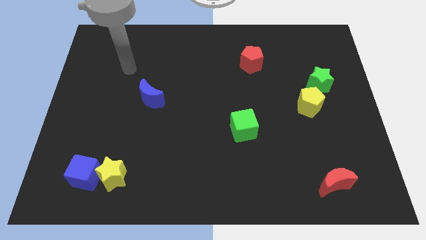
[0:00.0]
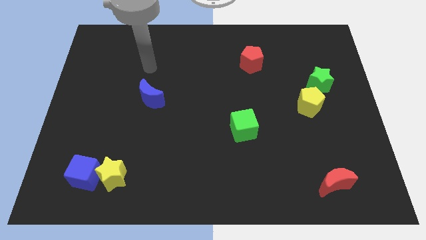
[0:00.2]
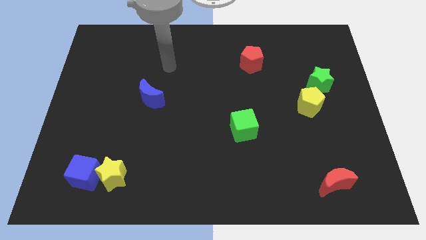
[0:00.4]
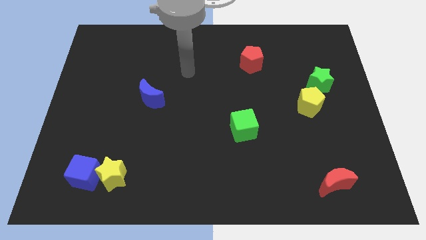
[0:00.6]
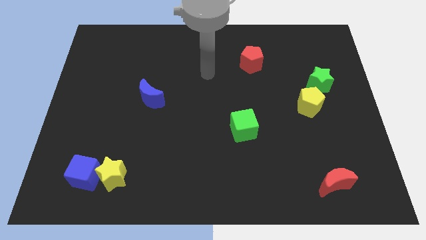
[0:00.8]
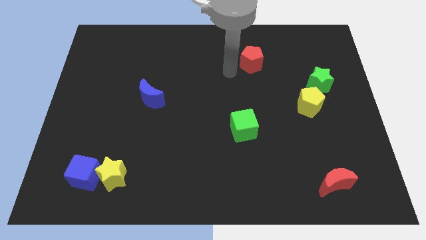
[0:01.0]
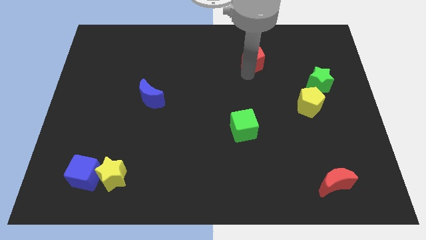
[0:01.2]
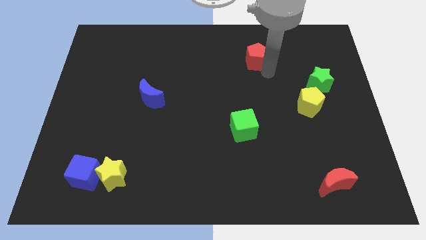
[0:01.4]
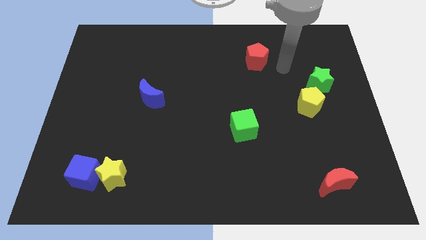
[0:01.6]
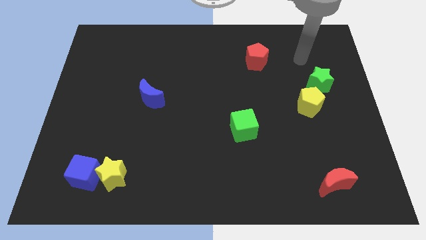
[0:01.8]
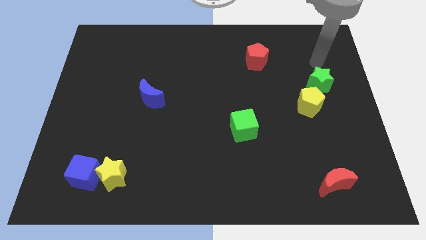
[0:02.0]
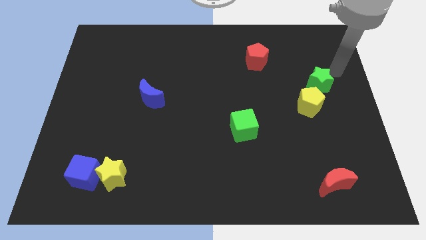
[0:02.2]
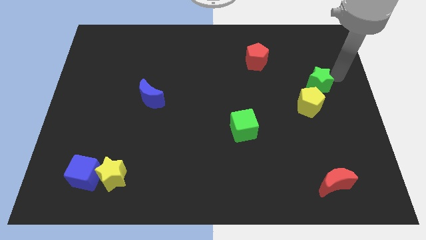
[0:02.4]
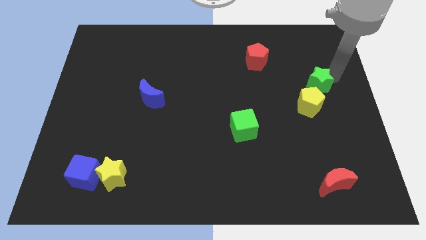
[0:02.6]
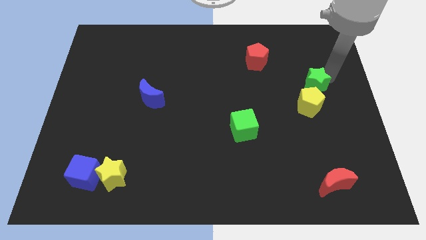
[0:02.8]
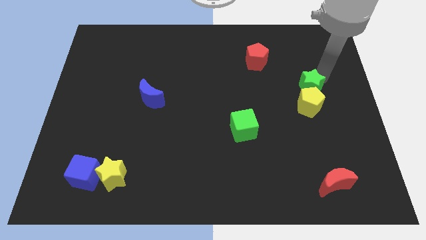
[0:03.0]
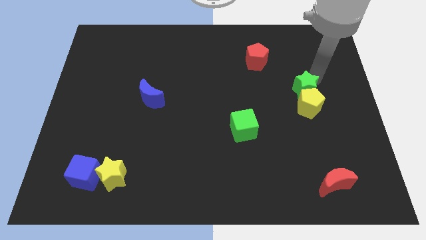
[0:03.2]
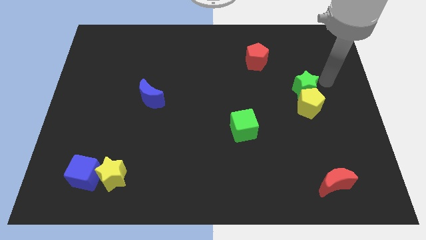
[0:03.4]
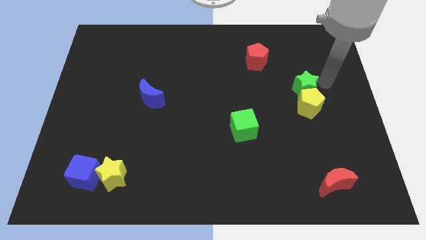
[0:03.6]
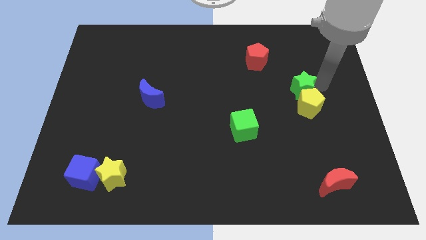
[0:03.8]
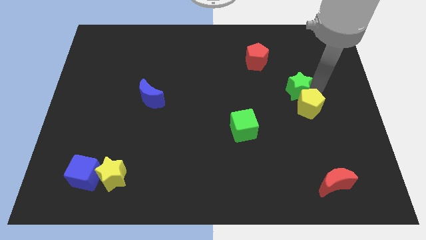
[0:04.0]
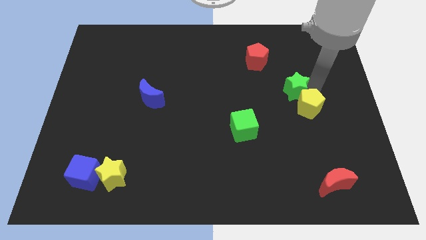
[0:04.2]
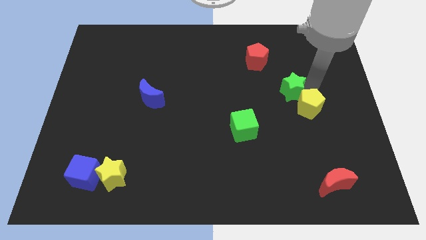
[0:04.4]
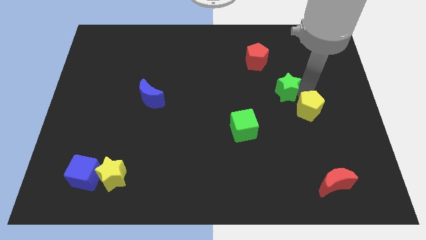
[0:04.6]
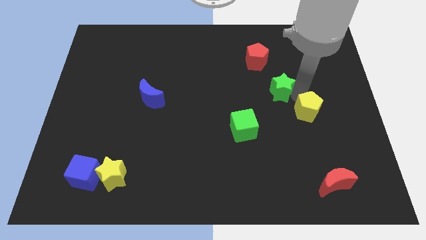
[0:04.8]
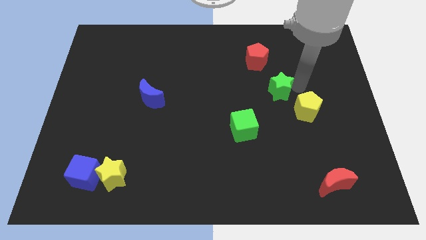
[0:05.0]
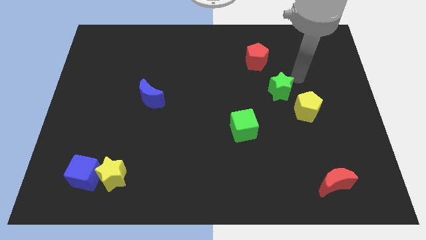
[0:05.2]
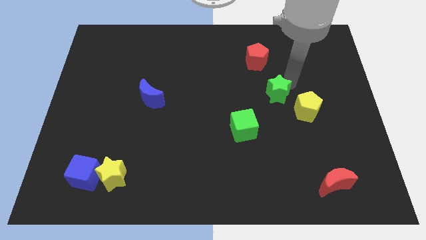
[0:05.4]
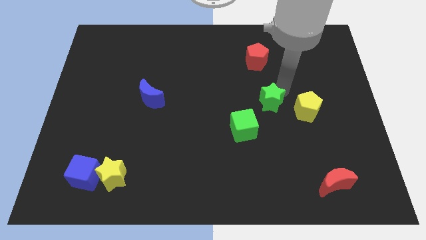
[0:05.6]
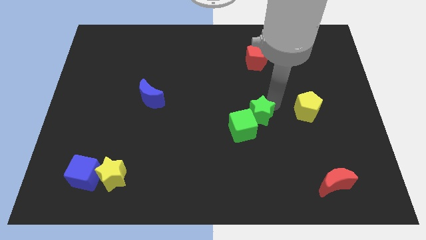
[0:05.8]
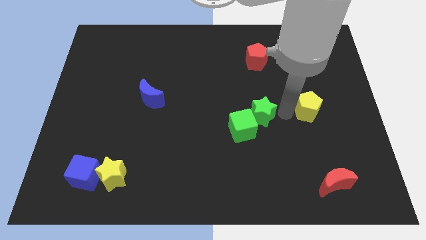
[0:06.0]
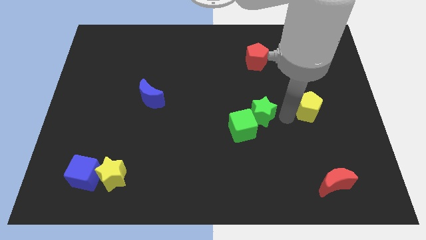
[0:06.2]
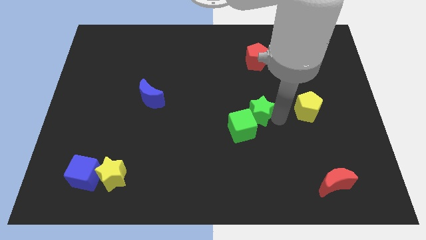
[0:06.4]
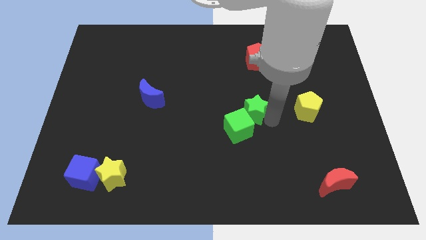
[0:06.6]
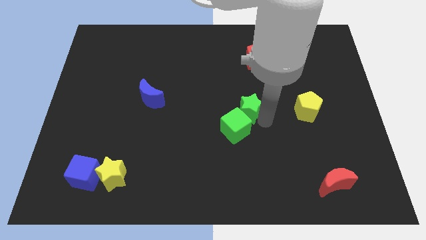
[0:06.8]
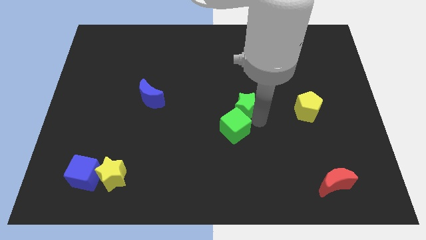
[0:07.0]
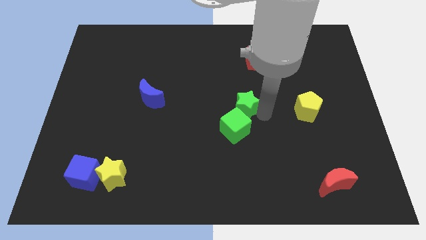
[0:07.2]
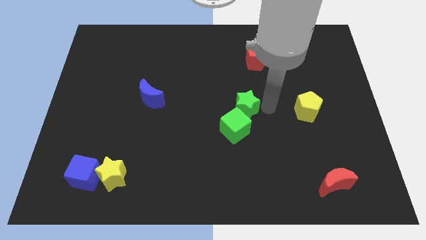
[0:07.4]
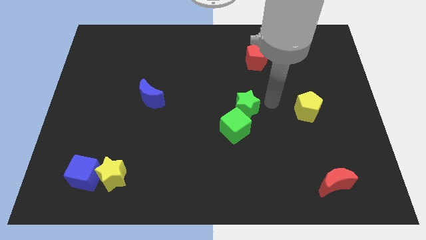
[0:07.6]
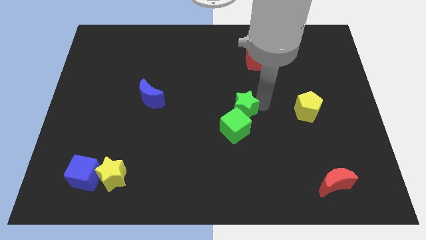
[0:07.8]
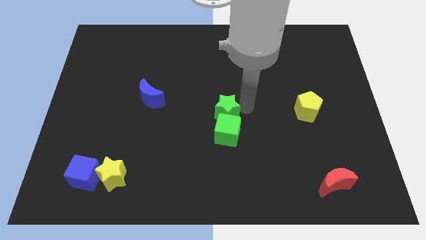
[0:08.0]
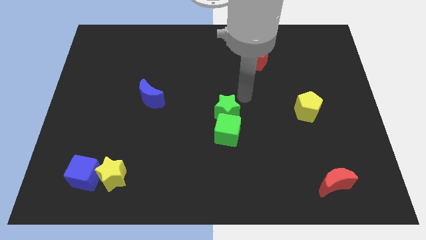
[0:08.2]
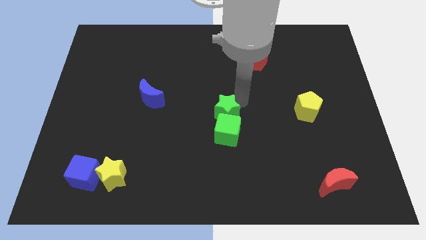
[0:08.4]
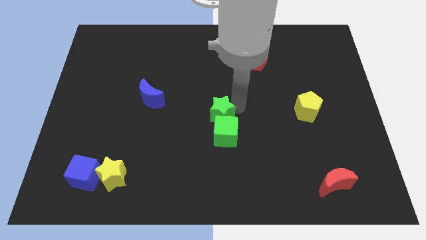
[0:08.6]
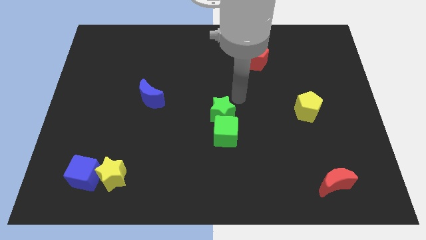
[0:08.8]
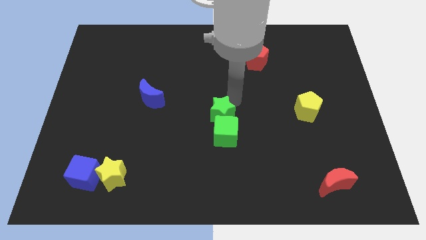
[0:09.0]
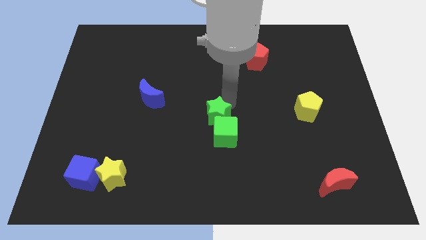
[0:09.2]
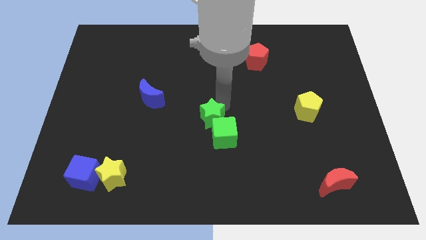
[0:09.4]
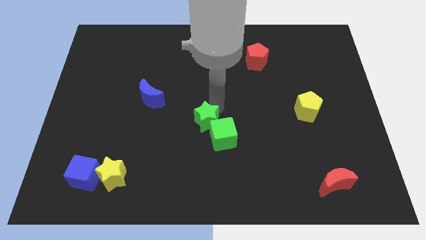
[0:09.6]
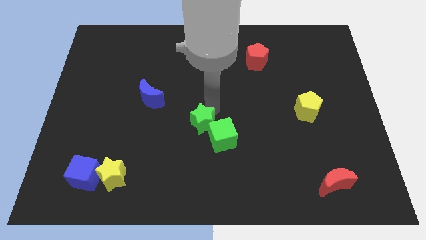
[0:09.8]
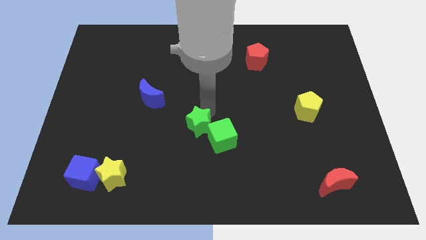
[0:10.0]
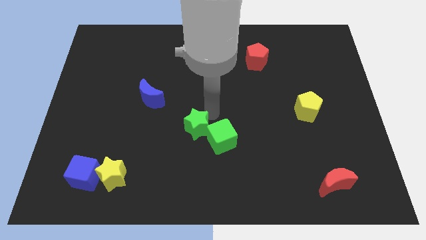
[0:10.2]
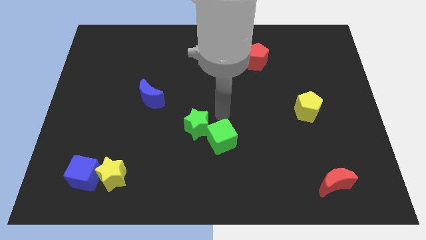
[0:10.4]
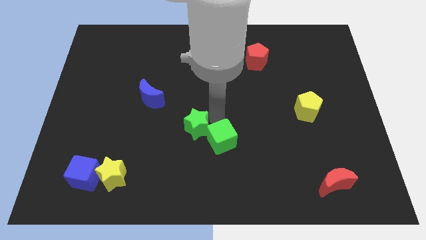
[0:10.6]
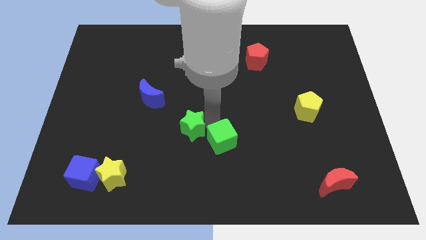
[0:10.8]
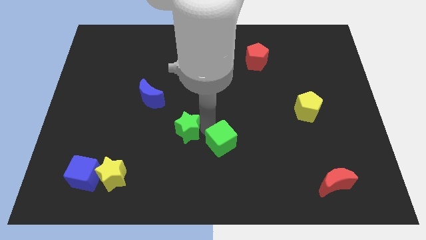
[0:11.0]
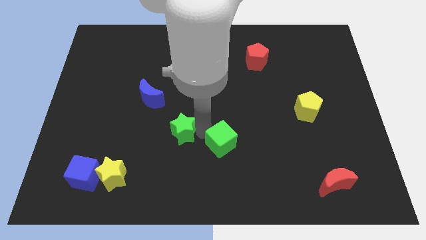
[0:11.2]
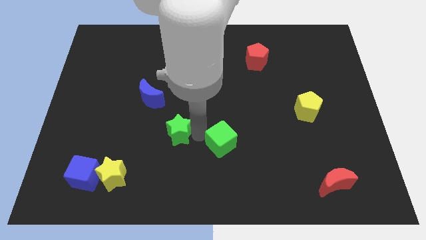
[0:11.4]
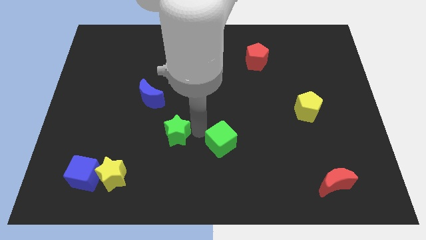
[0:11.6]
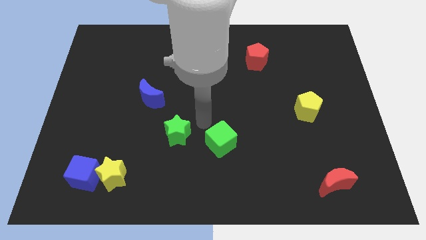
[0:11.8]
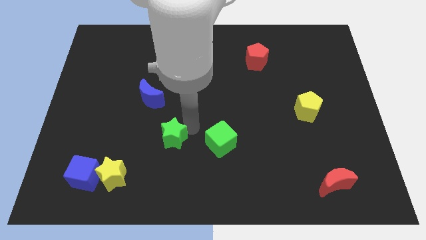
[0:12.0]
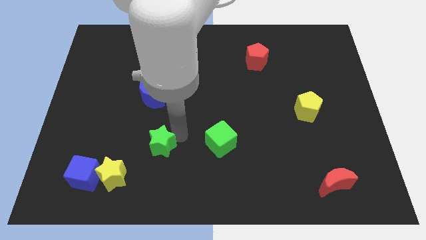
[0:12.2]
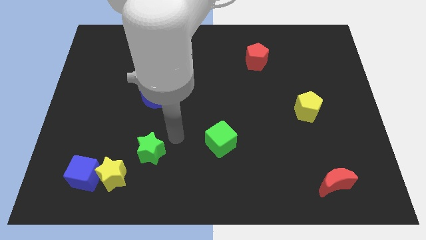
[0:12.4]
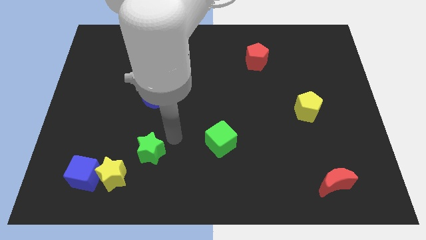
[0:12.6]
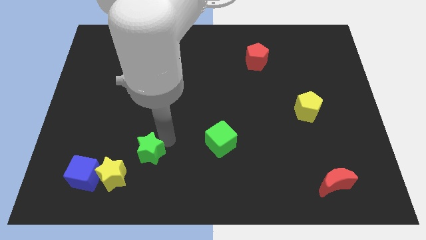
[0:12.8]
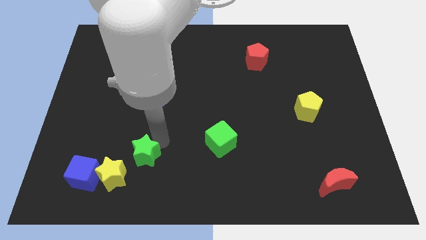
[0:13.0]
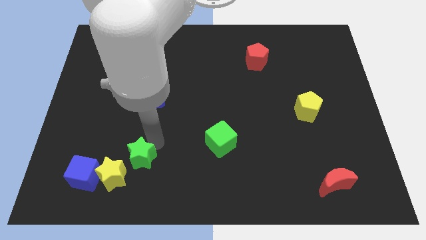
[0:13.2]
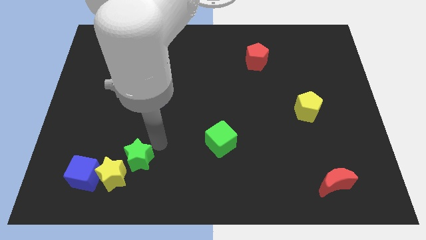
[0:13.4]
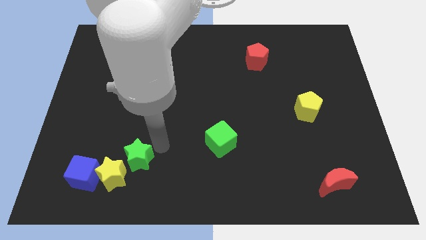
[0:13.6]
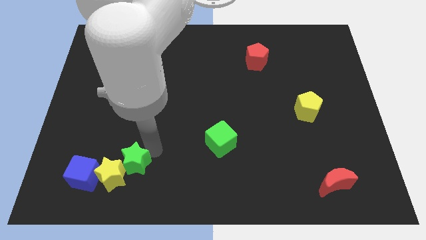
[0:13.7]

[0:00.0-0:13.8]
move the green star to the yellow star

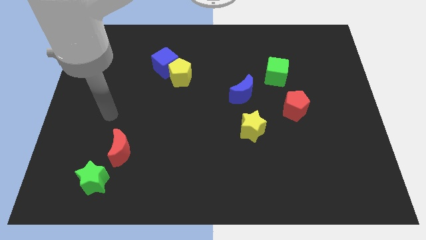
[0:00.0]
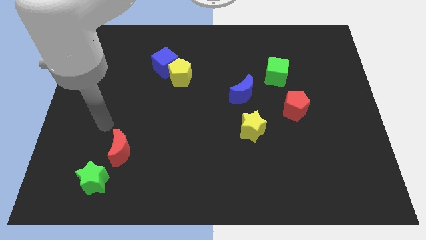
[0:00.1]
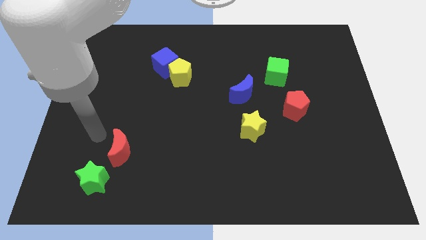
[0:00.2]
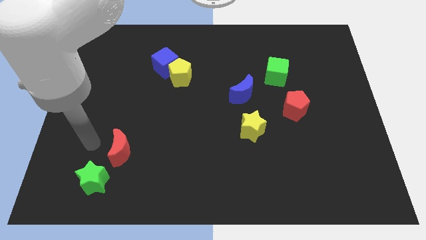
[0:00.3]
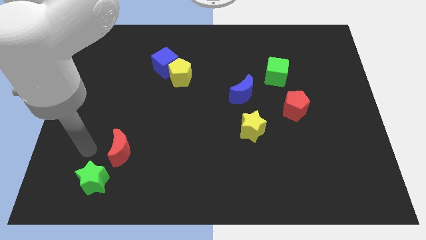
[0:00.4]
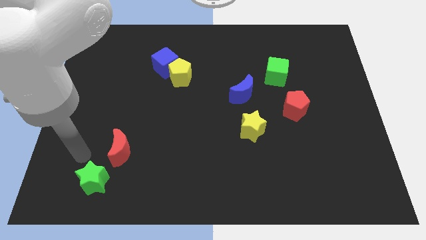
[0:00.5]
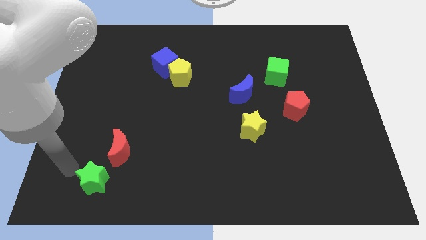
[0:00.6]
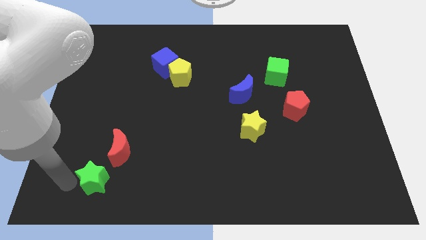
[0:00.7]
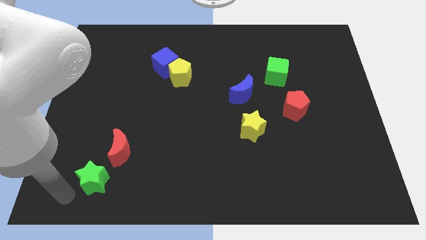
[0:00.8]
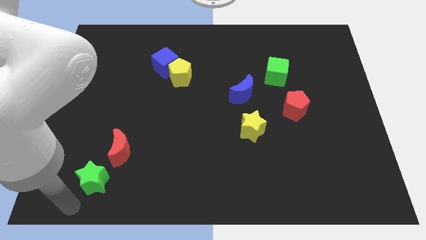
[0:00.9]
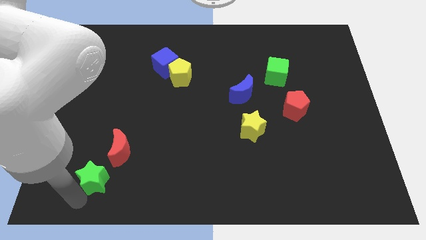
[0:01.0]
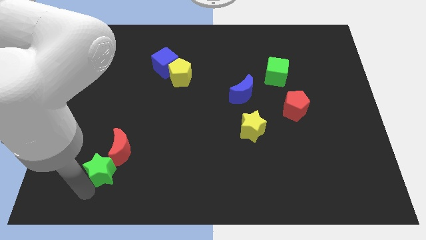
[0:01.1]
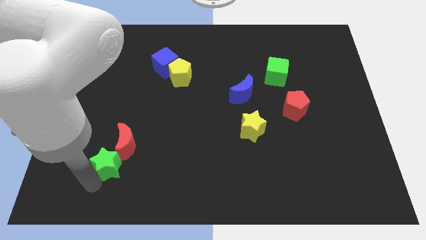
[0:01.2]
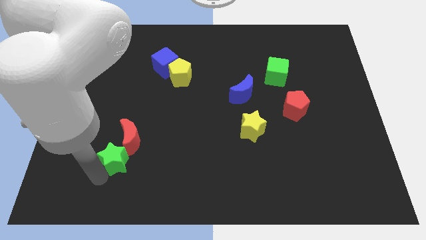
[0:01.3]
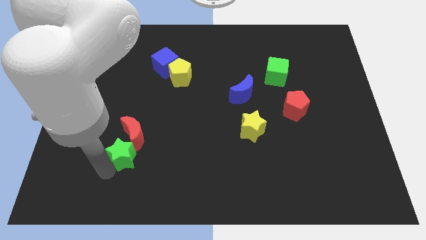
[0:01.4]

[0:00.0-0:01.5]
move the green star towards the red moon
